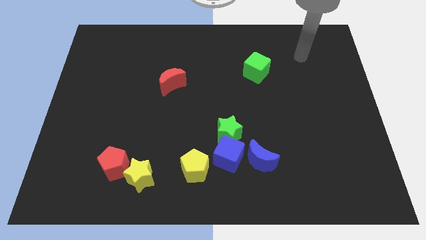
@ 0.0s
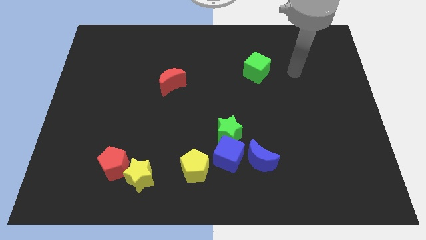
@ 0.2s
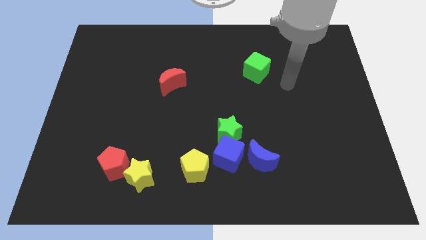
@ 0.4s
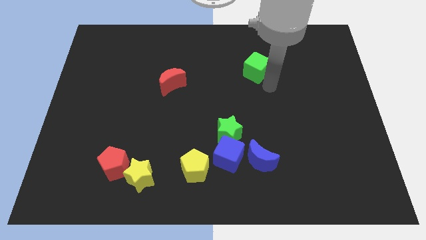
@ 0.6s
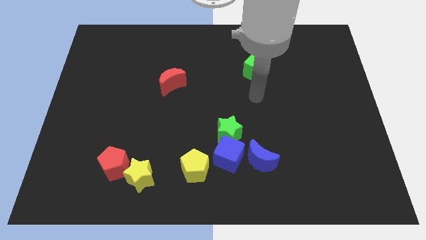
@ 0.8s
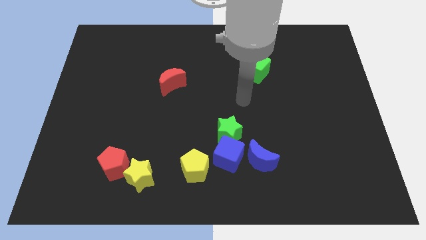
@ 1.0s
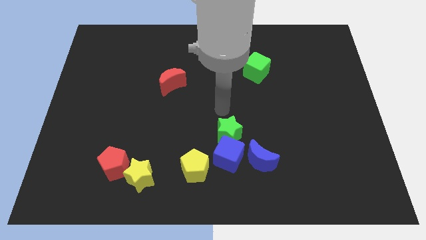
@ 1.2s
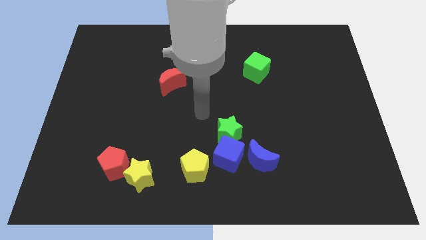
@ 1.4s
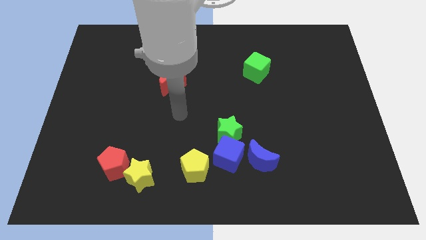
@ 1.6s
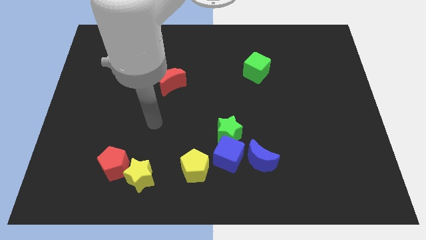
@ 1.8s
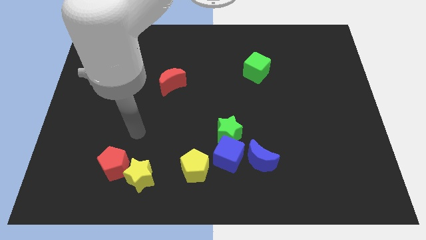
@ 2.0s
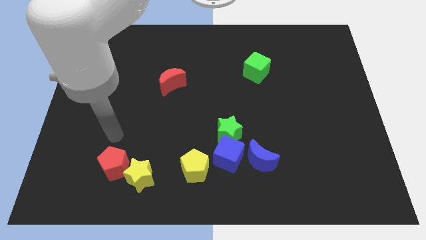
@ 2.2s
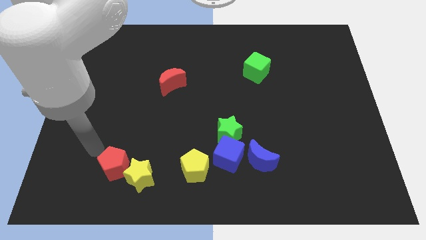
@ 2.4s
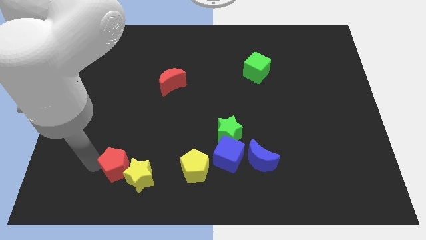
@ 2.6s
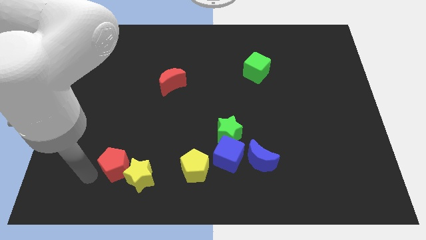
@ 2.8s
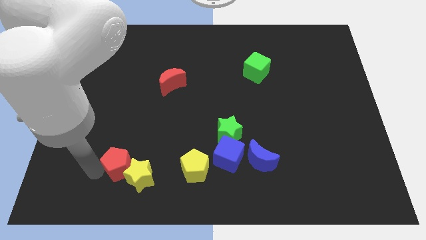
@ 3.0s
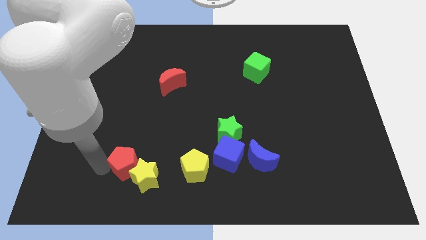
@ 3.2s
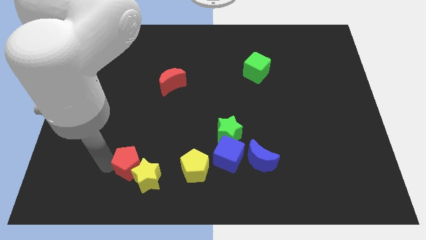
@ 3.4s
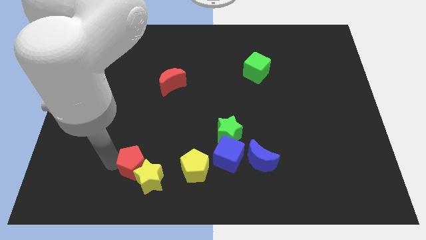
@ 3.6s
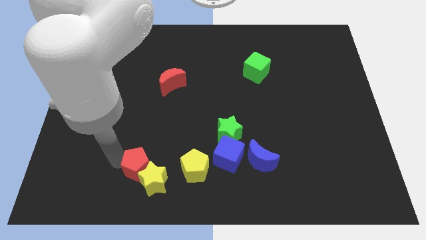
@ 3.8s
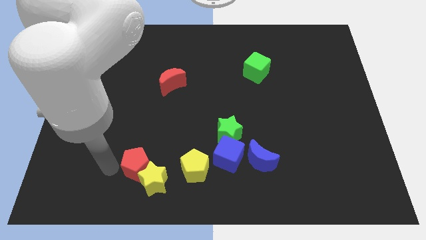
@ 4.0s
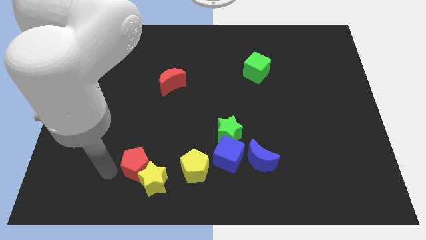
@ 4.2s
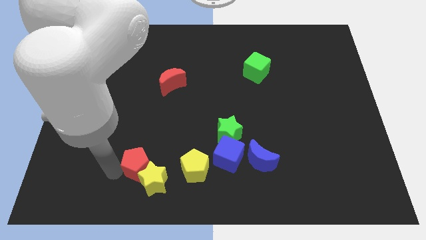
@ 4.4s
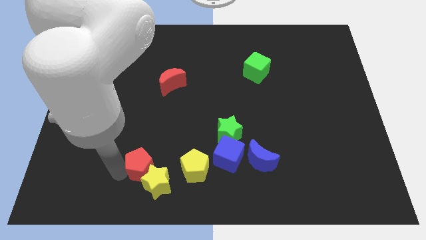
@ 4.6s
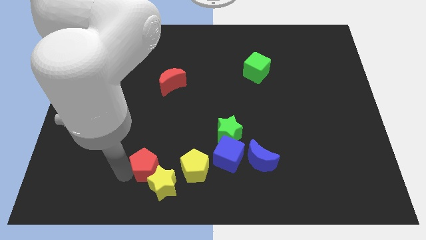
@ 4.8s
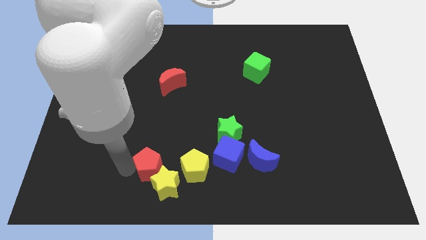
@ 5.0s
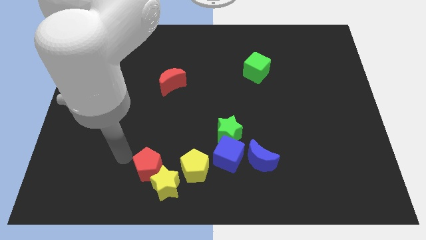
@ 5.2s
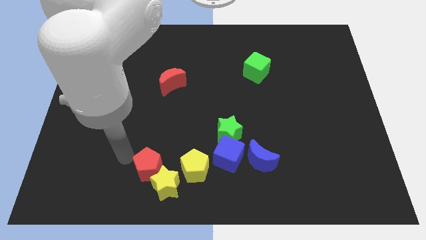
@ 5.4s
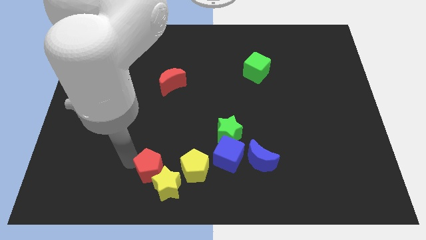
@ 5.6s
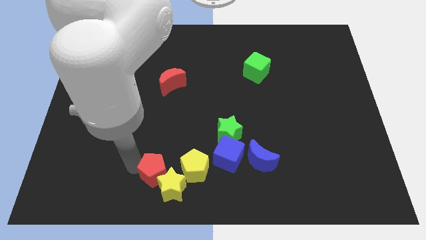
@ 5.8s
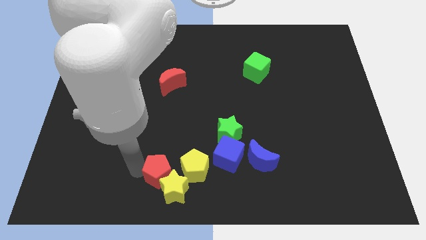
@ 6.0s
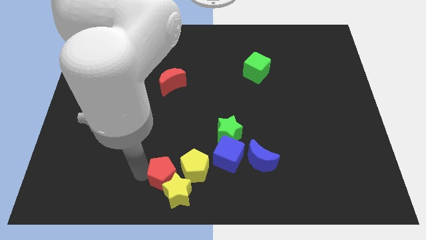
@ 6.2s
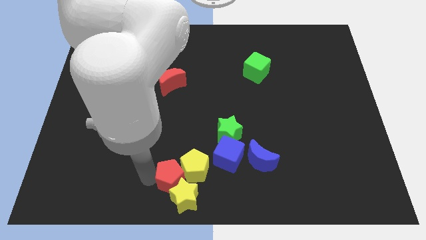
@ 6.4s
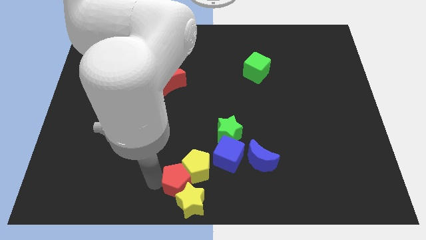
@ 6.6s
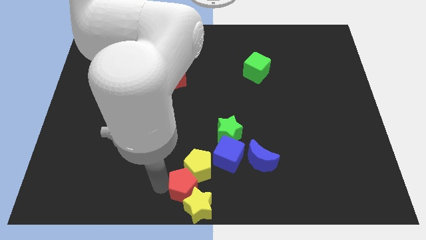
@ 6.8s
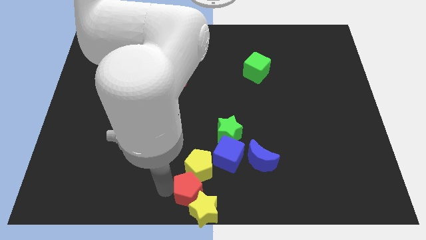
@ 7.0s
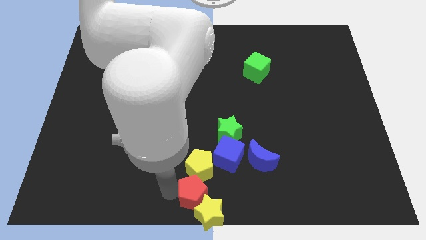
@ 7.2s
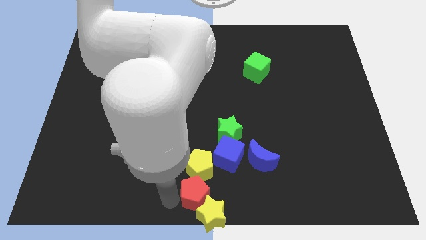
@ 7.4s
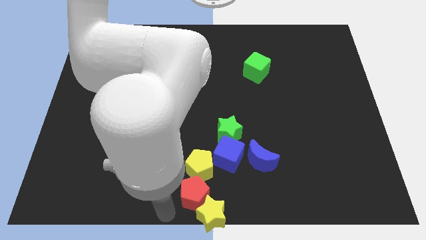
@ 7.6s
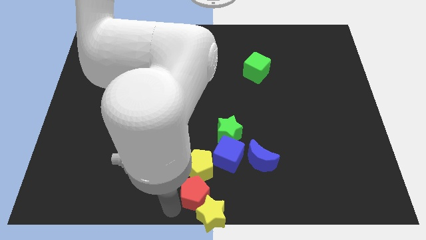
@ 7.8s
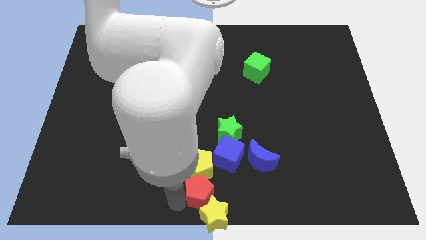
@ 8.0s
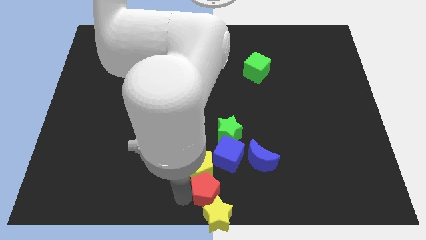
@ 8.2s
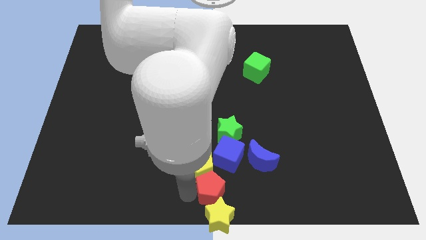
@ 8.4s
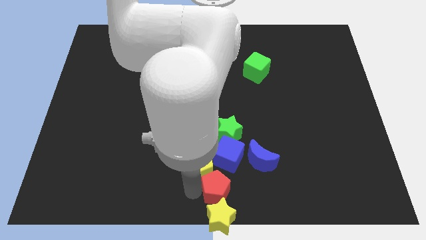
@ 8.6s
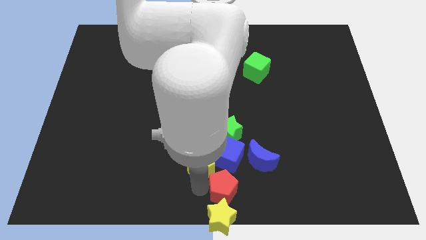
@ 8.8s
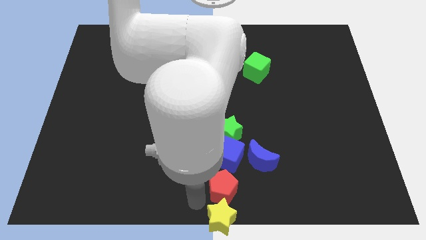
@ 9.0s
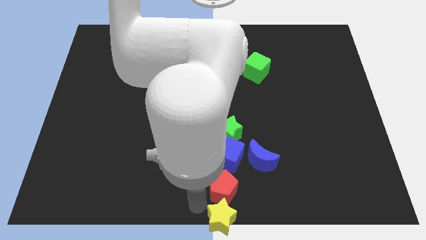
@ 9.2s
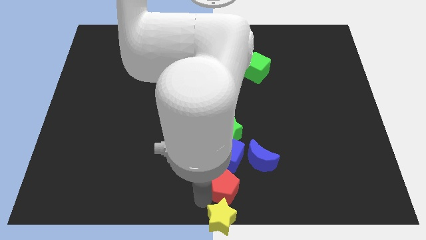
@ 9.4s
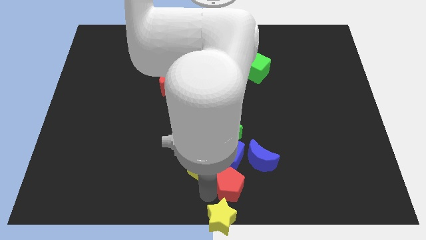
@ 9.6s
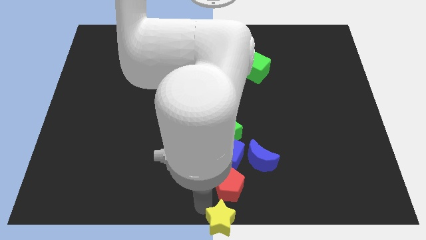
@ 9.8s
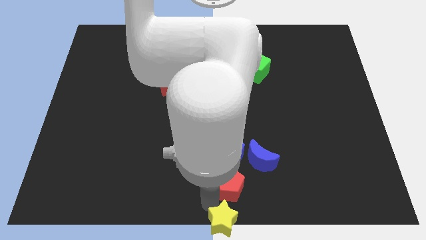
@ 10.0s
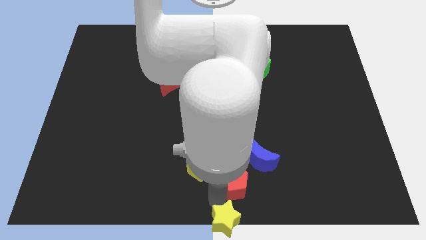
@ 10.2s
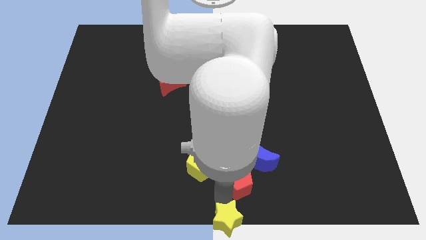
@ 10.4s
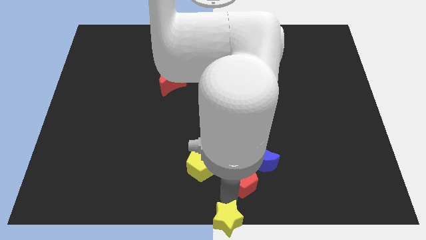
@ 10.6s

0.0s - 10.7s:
push the red pentagon close to the blue moon

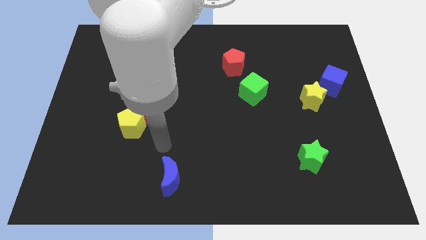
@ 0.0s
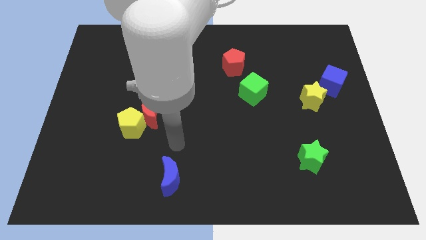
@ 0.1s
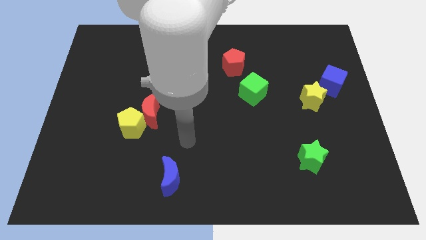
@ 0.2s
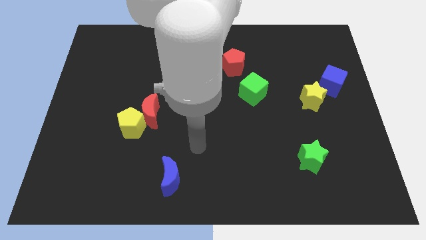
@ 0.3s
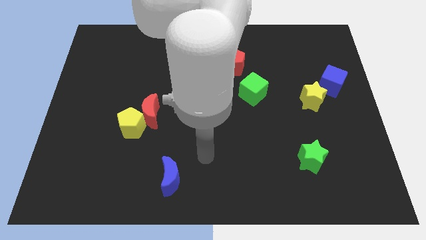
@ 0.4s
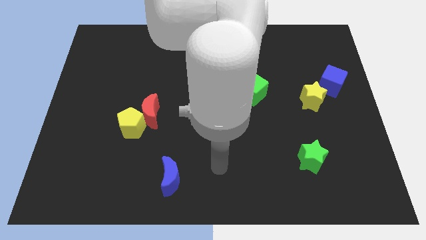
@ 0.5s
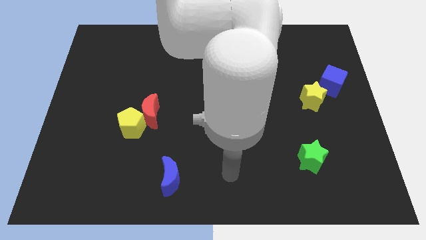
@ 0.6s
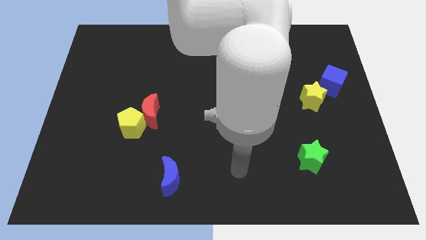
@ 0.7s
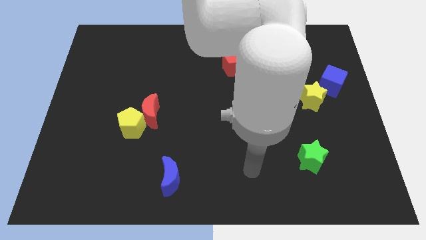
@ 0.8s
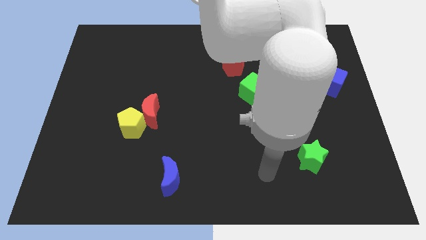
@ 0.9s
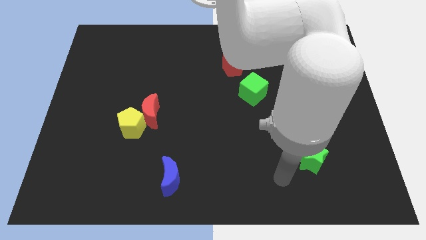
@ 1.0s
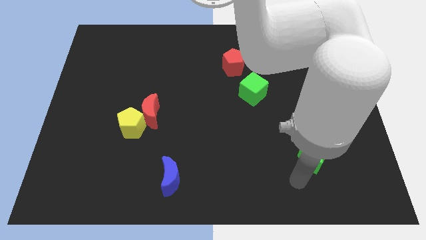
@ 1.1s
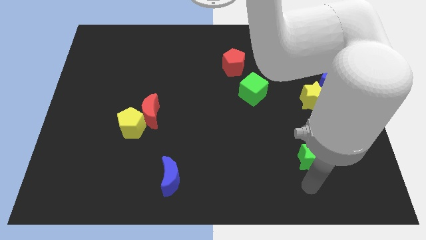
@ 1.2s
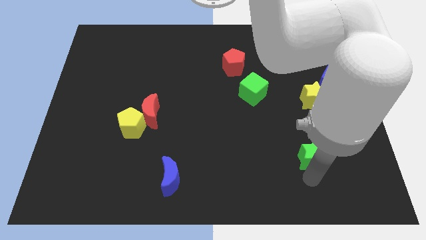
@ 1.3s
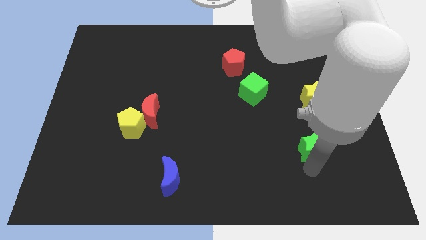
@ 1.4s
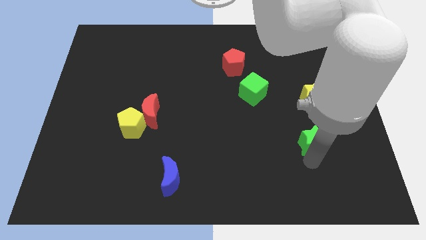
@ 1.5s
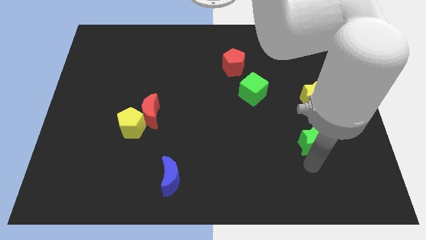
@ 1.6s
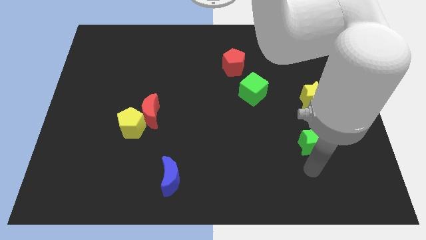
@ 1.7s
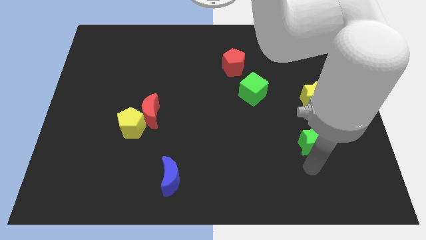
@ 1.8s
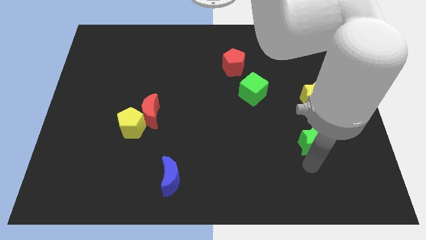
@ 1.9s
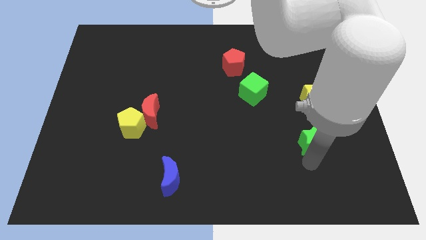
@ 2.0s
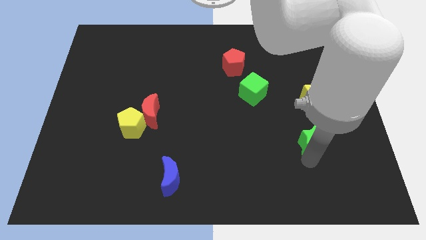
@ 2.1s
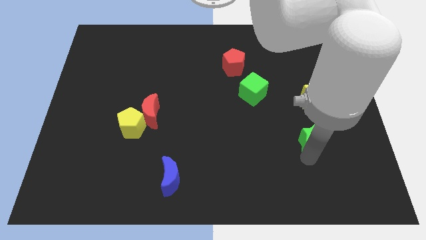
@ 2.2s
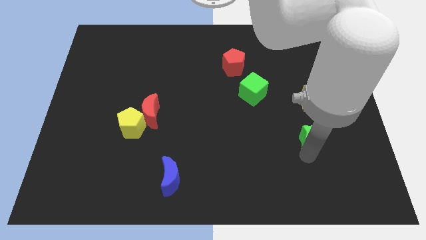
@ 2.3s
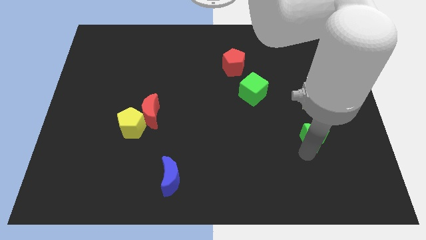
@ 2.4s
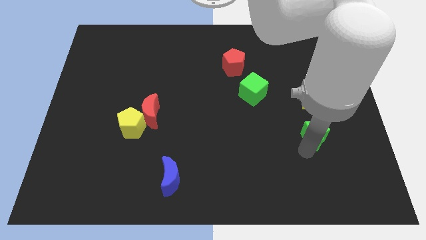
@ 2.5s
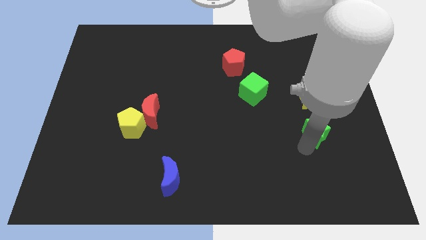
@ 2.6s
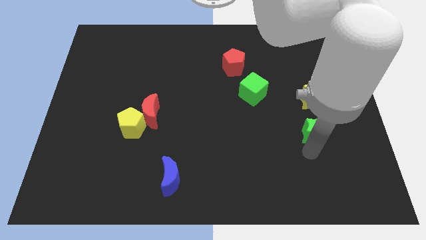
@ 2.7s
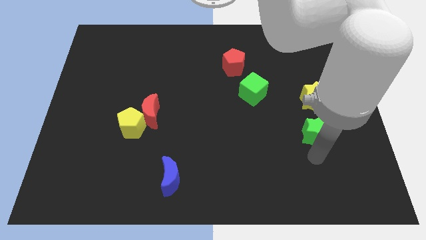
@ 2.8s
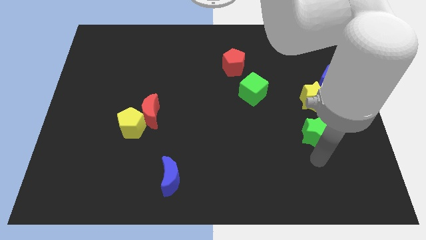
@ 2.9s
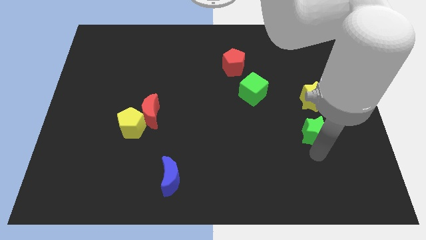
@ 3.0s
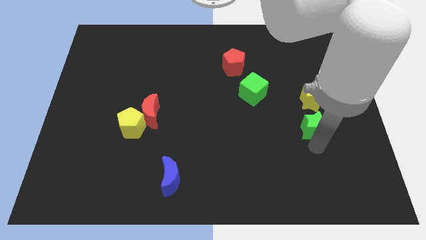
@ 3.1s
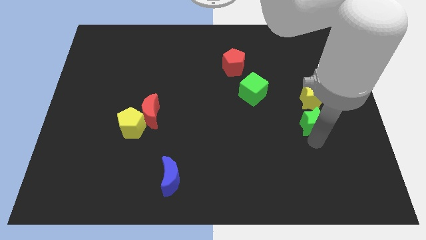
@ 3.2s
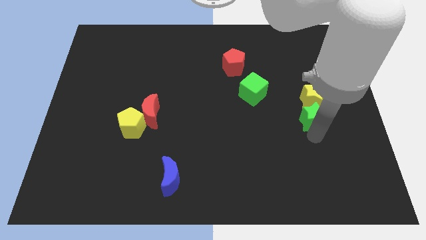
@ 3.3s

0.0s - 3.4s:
slide the green star close to the yellow star
